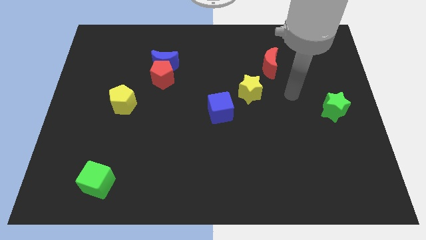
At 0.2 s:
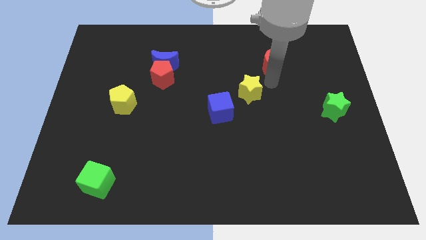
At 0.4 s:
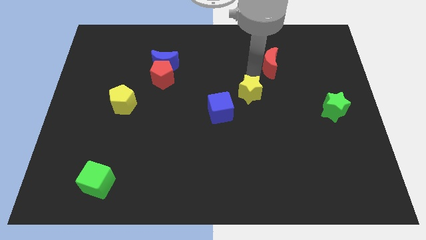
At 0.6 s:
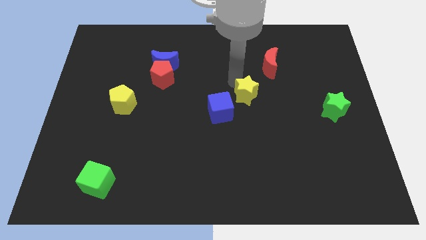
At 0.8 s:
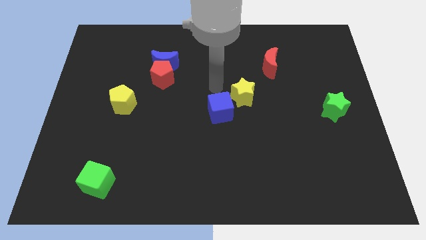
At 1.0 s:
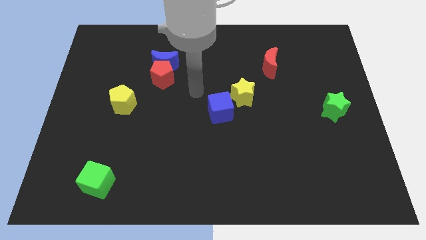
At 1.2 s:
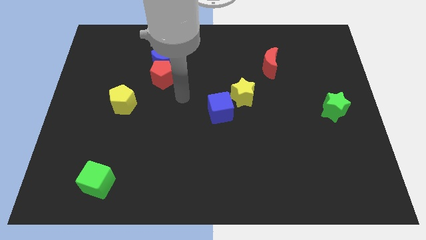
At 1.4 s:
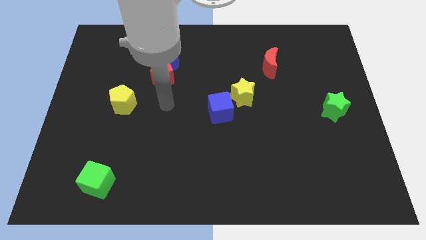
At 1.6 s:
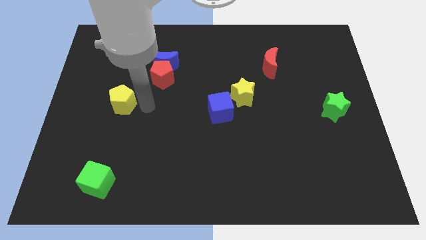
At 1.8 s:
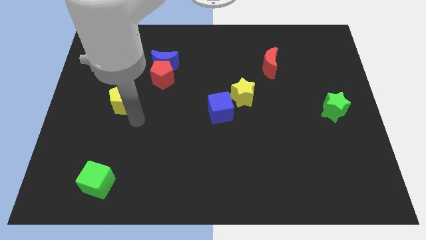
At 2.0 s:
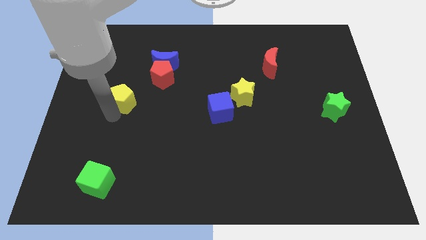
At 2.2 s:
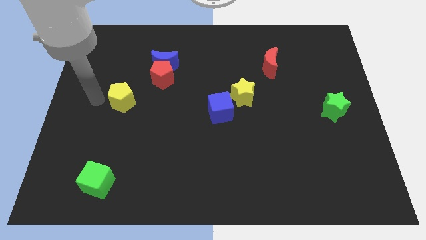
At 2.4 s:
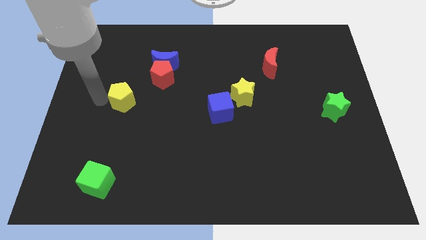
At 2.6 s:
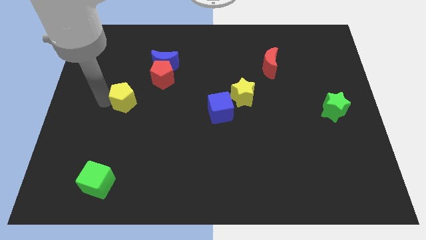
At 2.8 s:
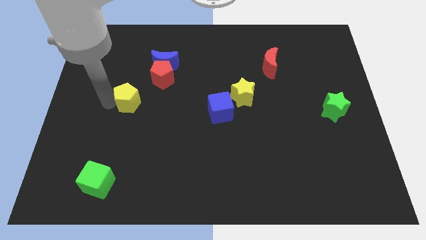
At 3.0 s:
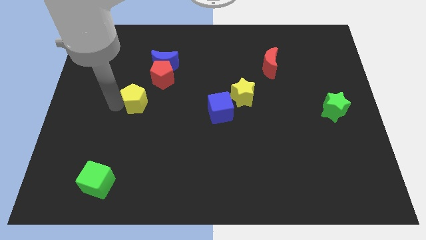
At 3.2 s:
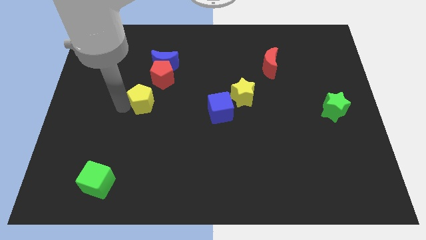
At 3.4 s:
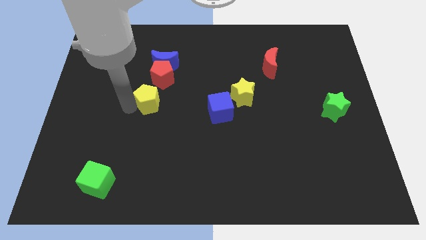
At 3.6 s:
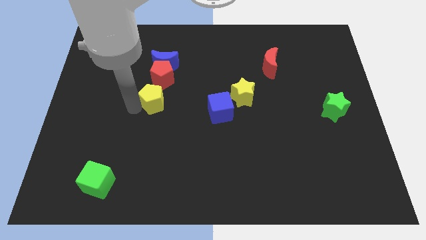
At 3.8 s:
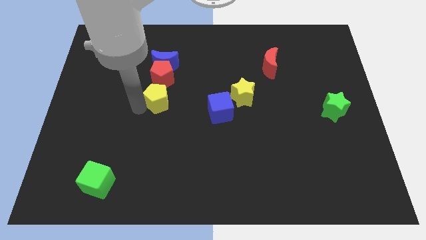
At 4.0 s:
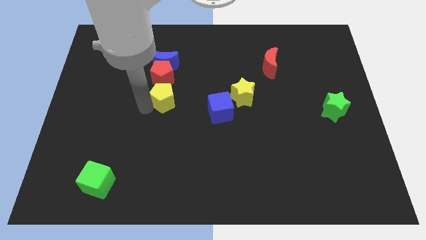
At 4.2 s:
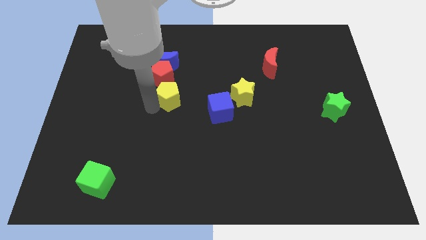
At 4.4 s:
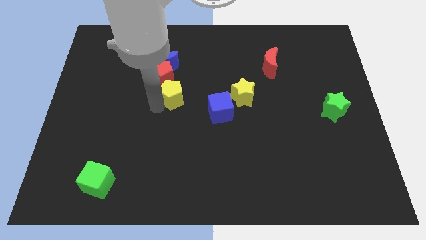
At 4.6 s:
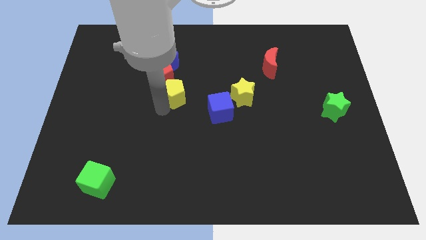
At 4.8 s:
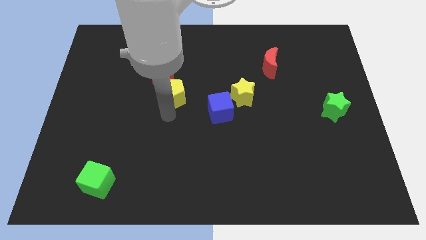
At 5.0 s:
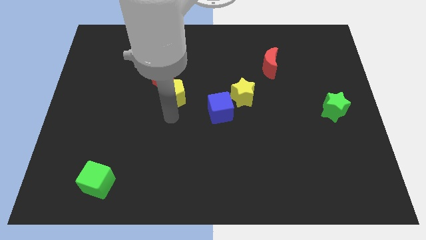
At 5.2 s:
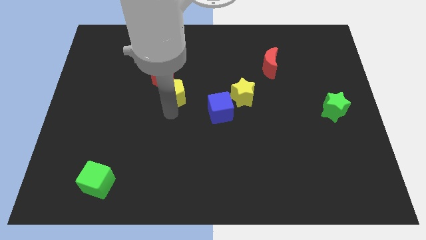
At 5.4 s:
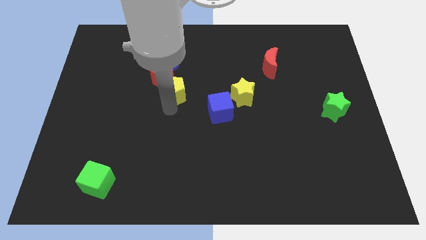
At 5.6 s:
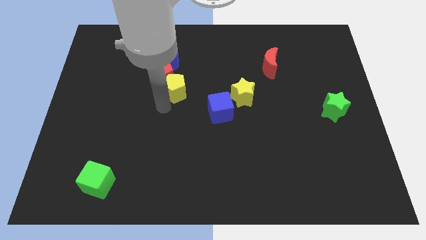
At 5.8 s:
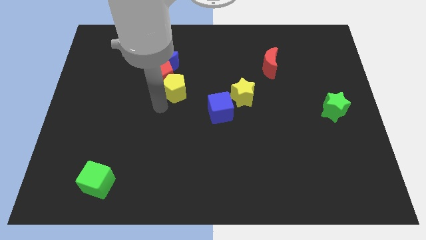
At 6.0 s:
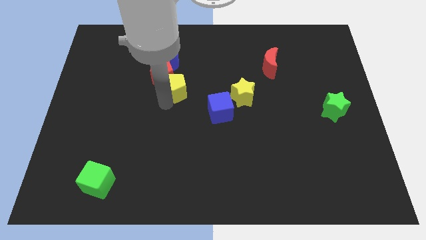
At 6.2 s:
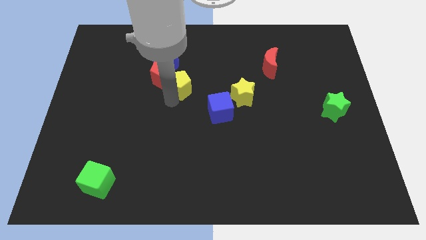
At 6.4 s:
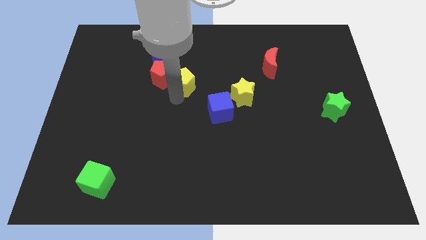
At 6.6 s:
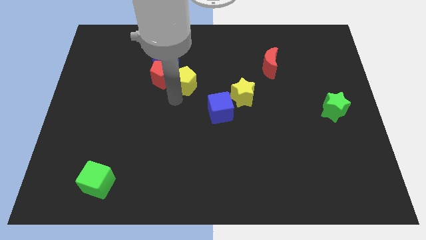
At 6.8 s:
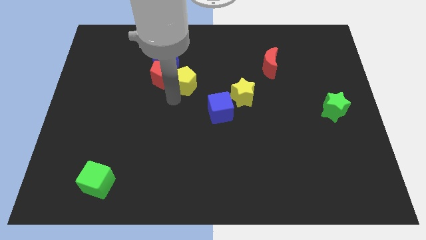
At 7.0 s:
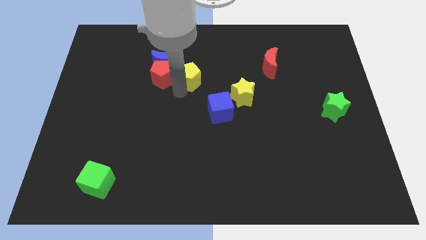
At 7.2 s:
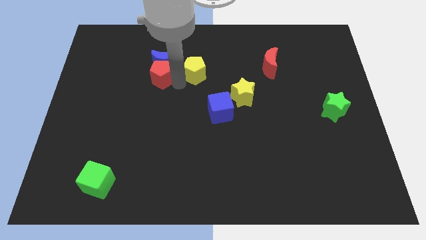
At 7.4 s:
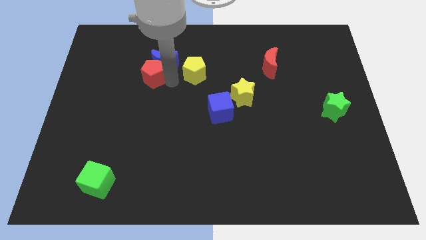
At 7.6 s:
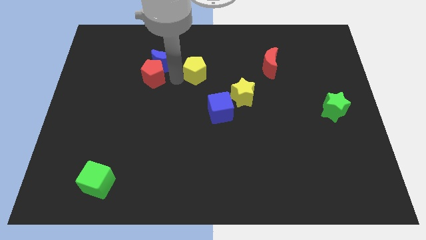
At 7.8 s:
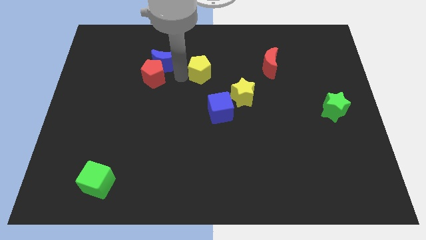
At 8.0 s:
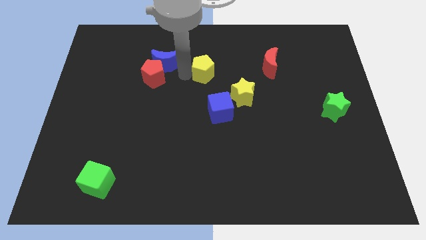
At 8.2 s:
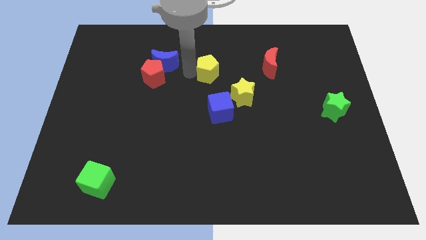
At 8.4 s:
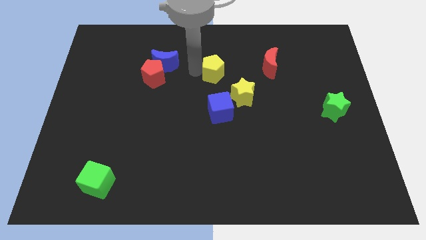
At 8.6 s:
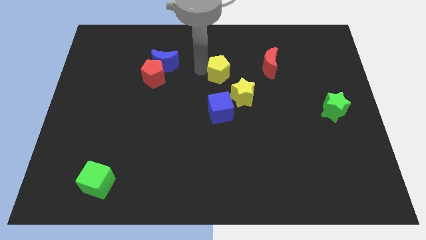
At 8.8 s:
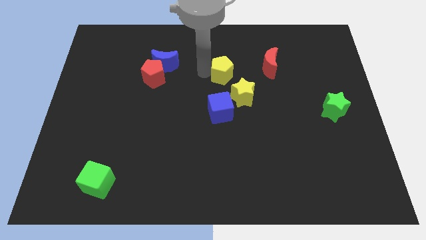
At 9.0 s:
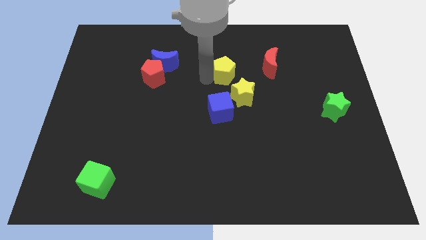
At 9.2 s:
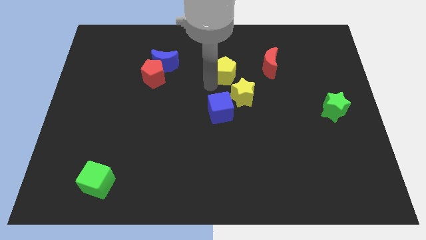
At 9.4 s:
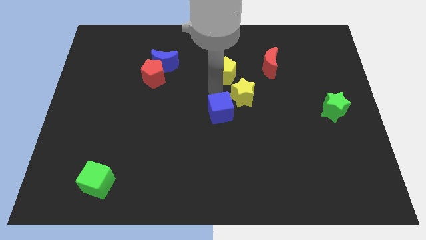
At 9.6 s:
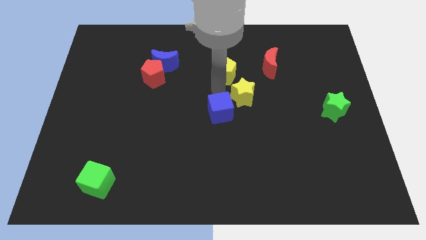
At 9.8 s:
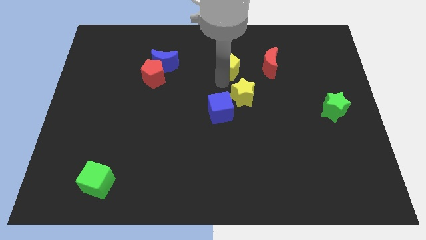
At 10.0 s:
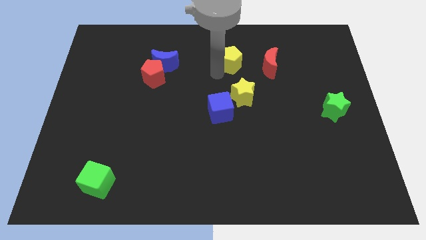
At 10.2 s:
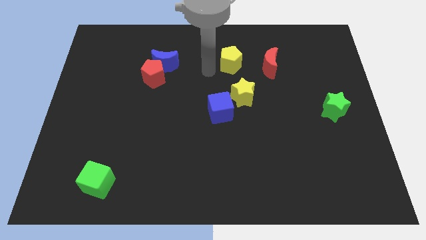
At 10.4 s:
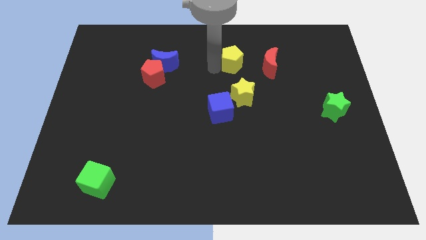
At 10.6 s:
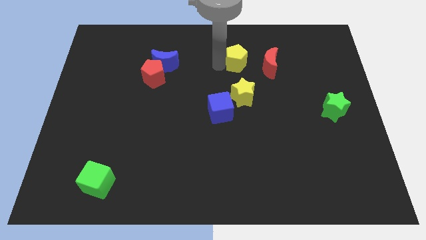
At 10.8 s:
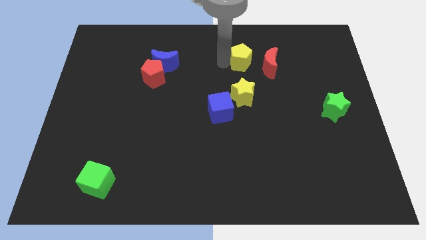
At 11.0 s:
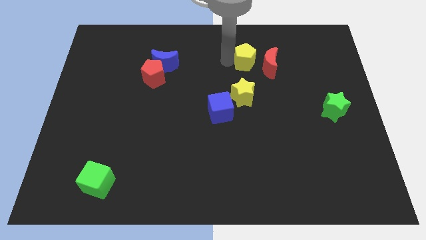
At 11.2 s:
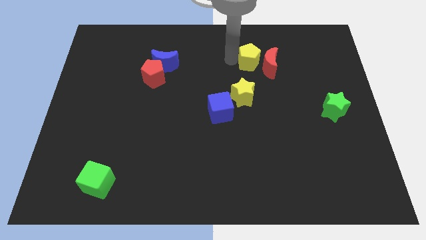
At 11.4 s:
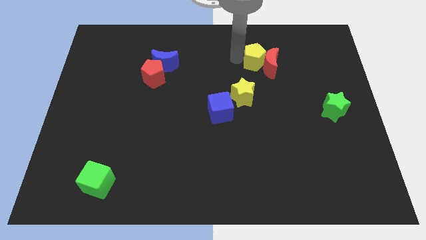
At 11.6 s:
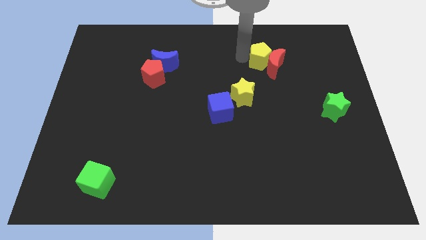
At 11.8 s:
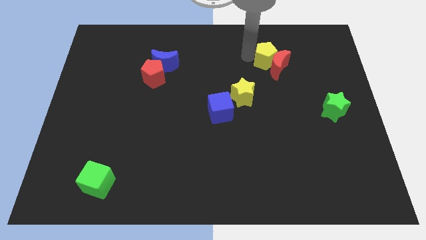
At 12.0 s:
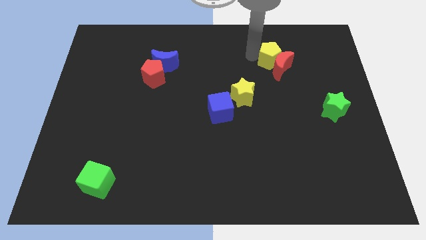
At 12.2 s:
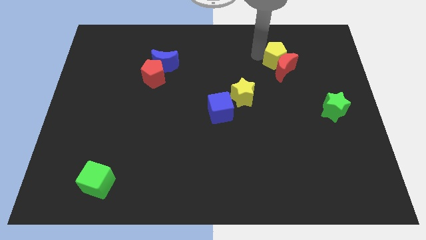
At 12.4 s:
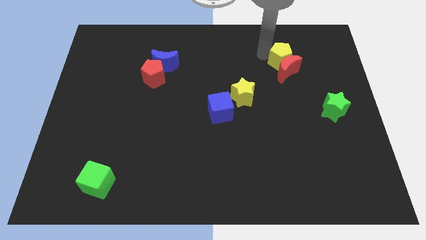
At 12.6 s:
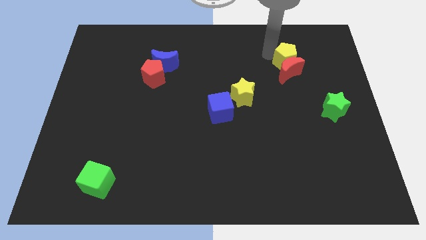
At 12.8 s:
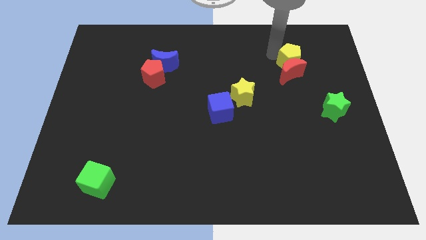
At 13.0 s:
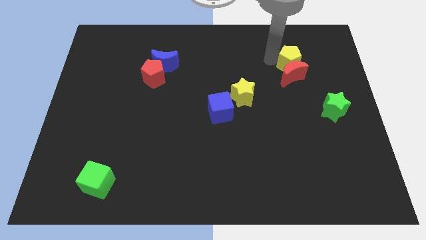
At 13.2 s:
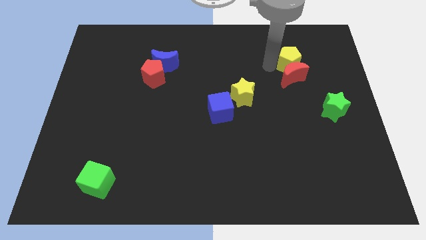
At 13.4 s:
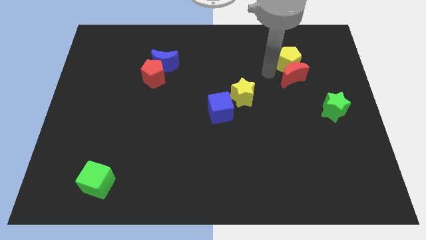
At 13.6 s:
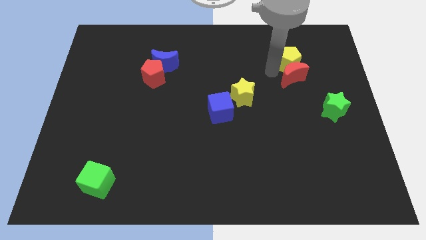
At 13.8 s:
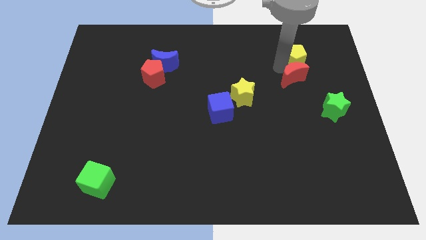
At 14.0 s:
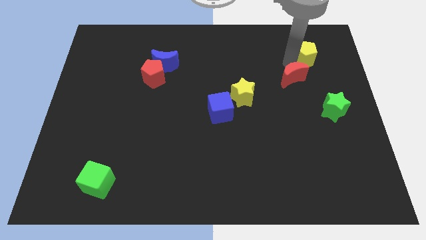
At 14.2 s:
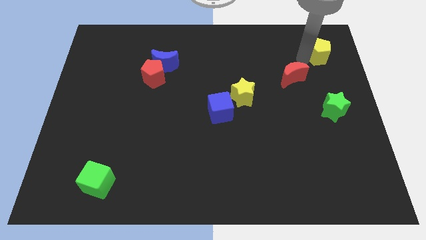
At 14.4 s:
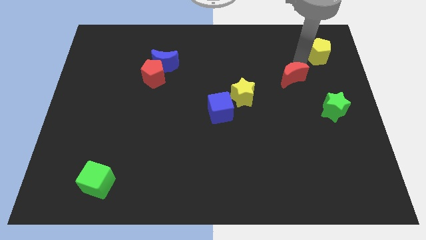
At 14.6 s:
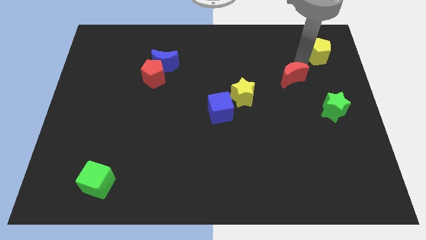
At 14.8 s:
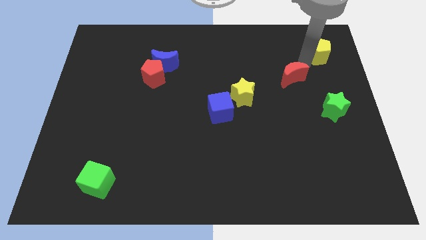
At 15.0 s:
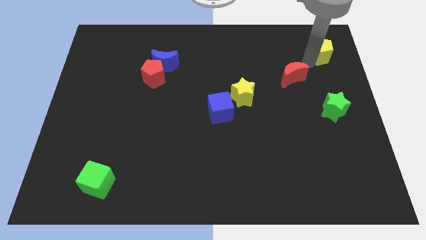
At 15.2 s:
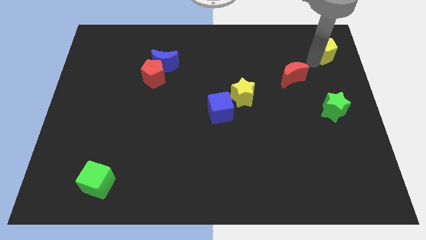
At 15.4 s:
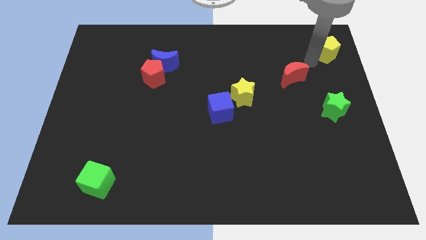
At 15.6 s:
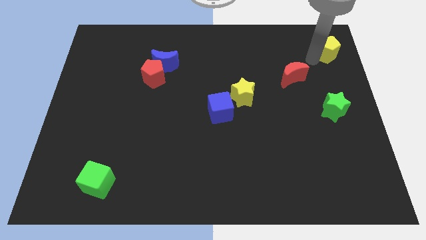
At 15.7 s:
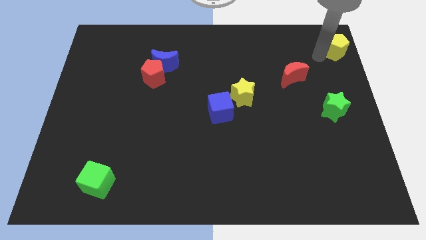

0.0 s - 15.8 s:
slide the yellow pentagon to the top right of the board
